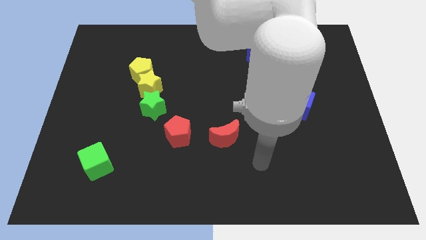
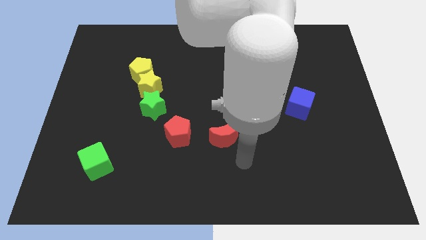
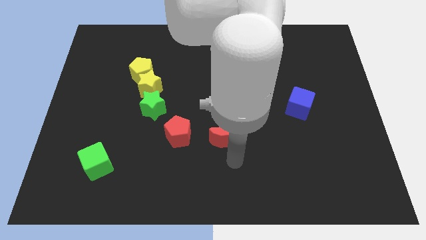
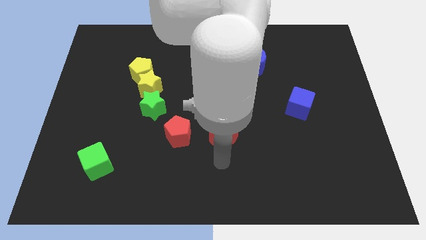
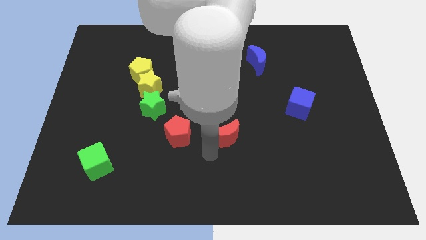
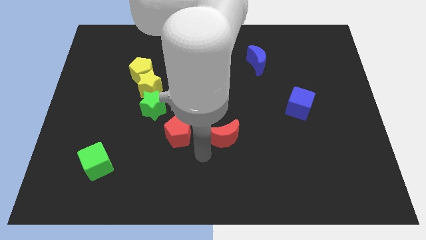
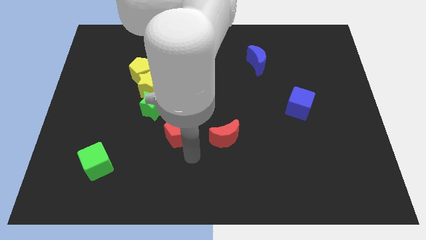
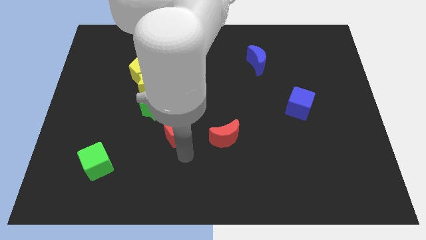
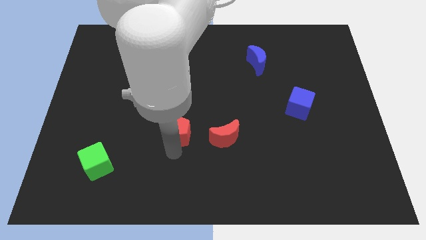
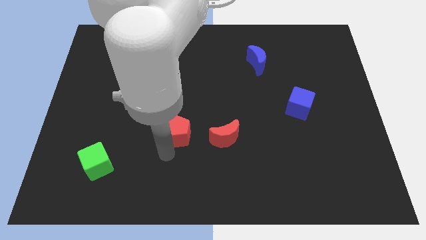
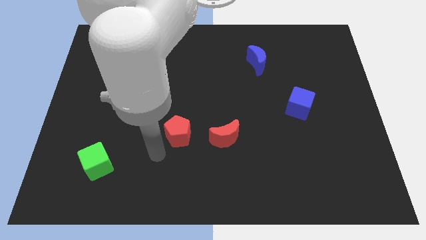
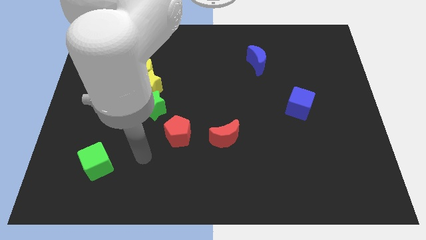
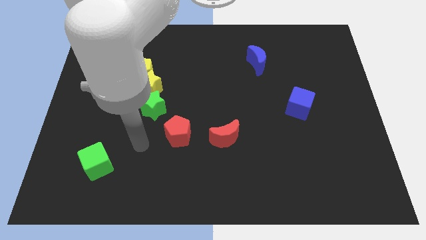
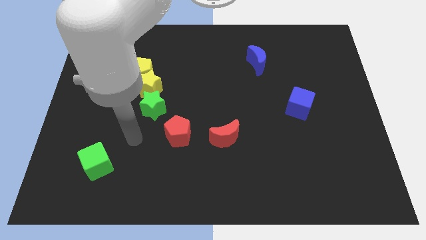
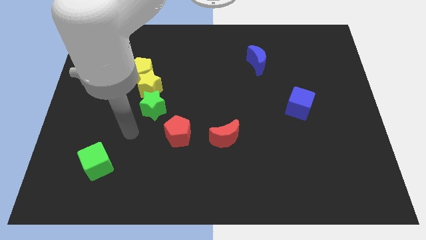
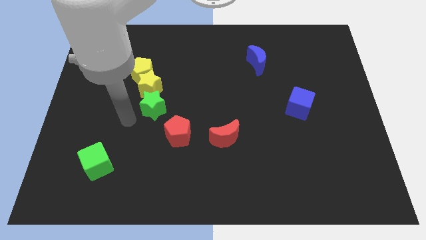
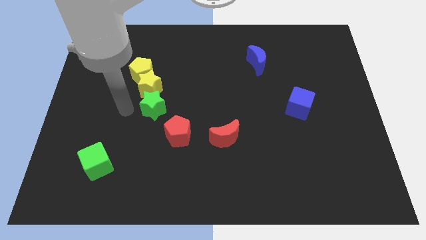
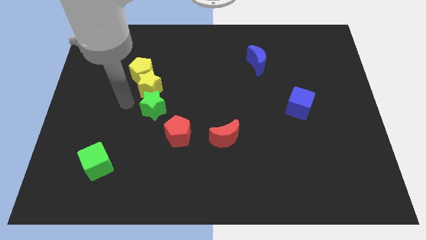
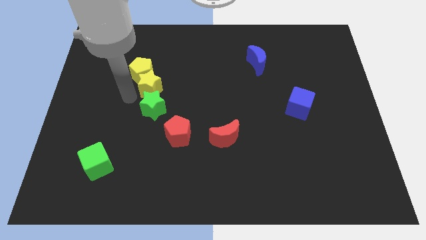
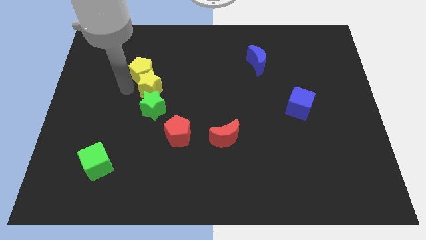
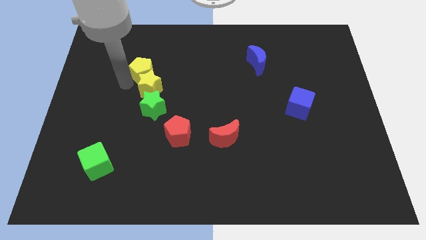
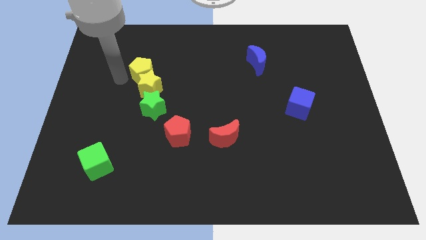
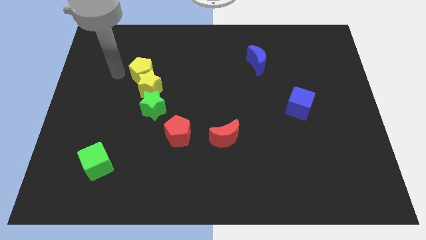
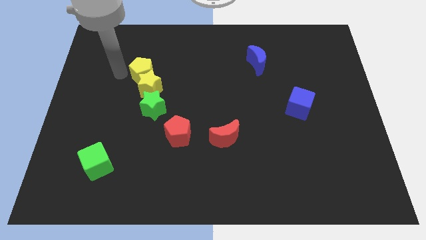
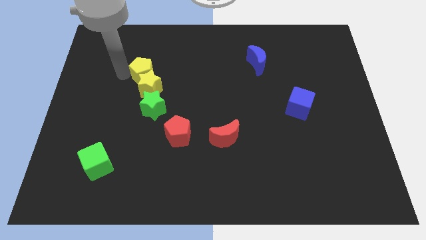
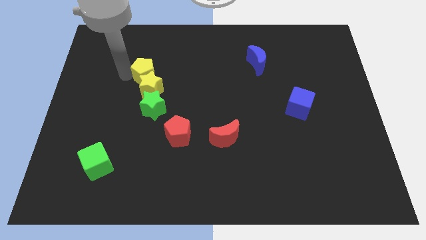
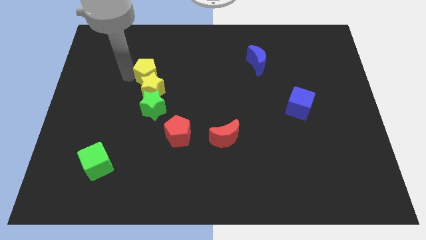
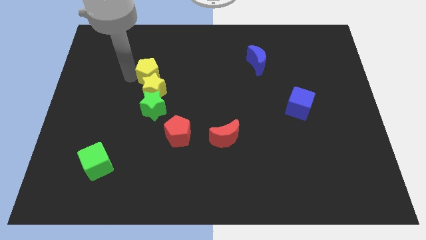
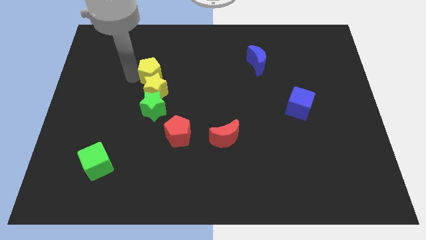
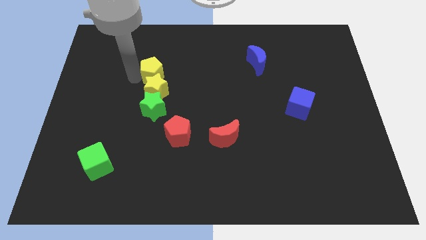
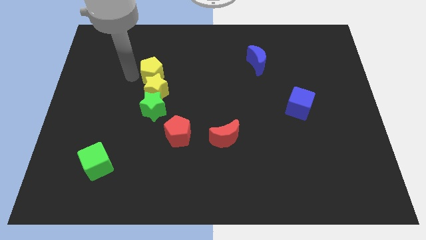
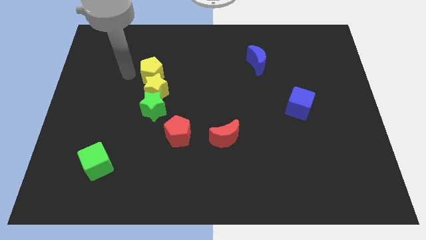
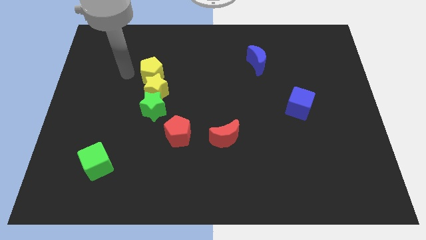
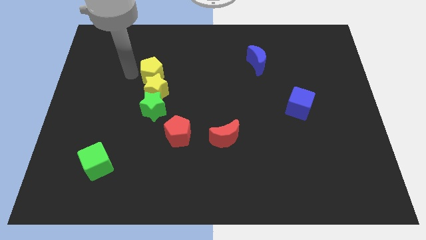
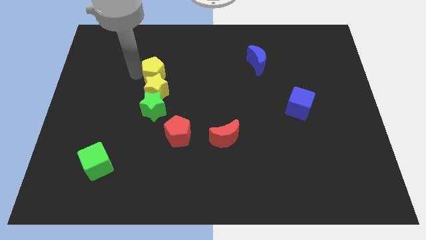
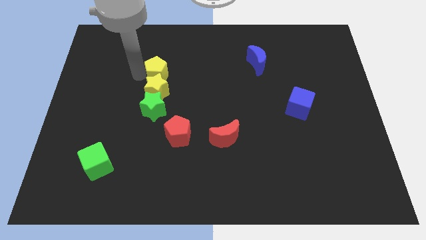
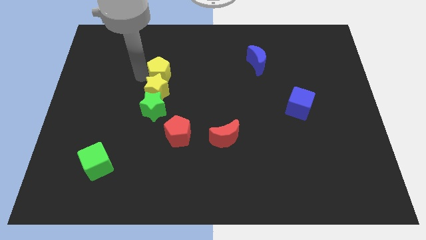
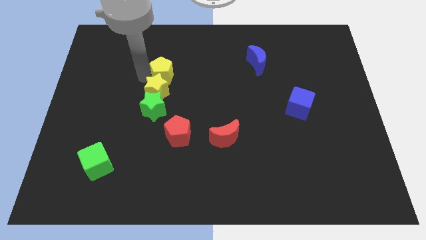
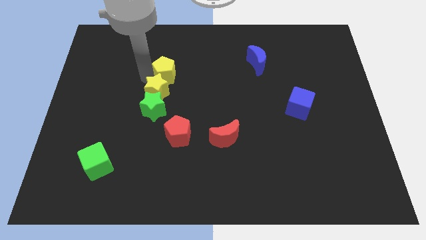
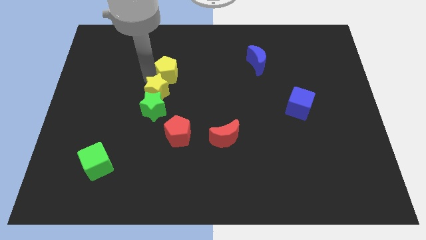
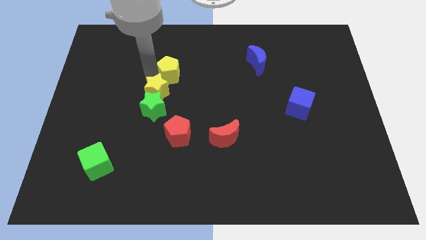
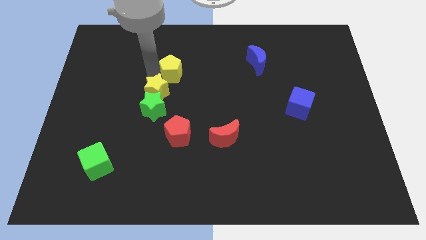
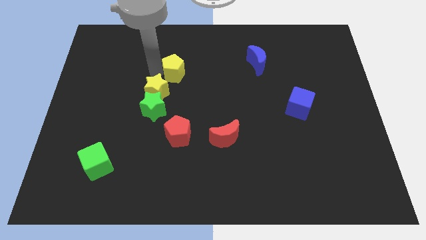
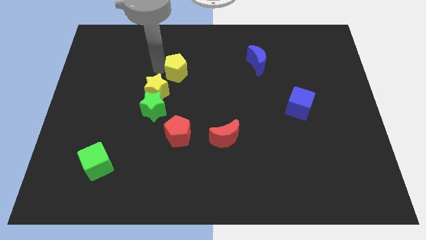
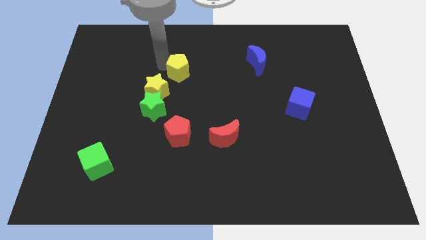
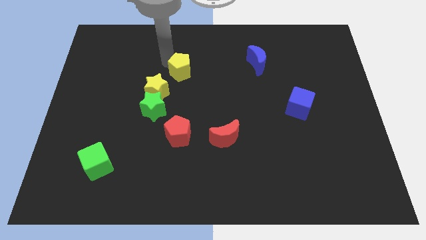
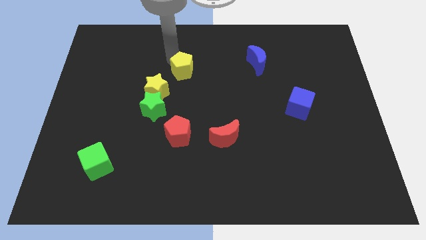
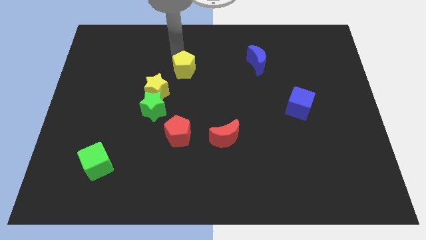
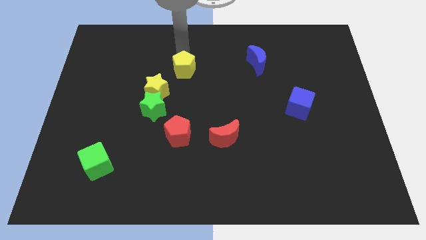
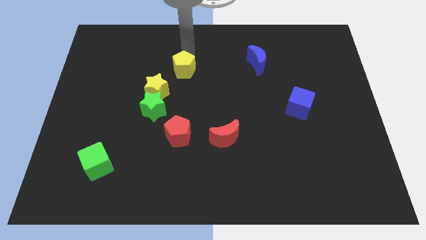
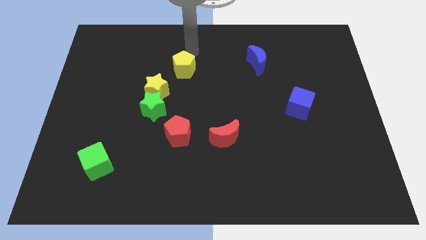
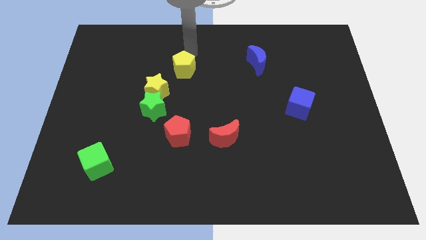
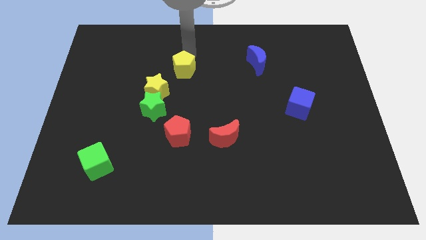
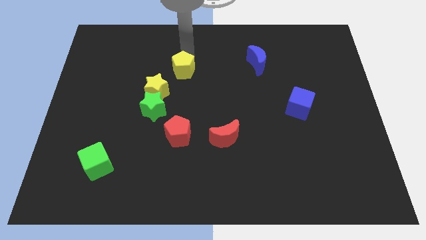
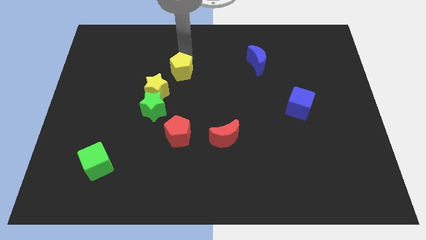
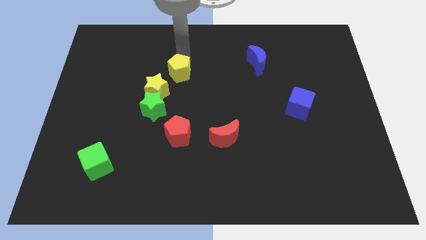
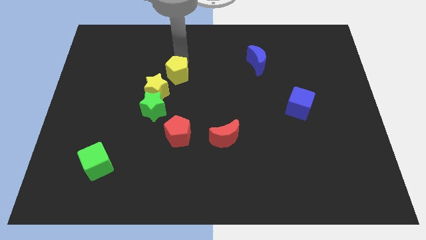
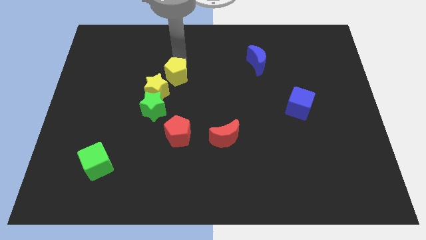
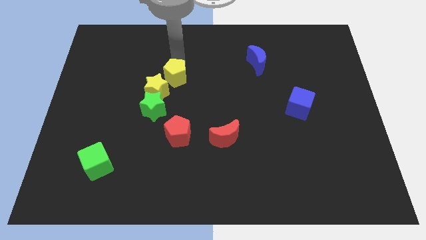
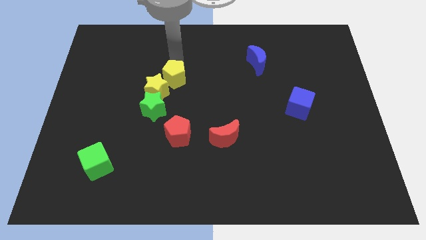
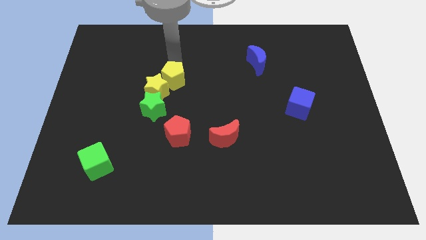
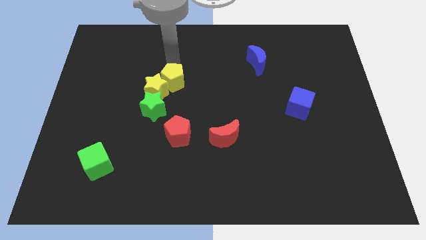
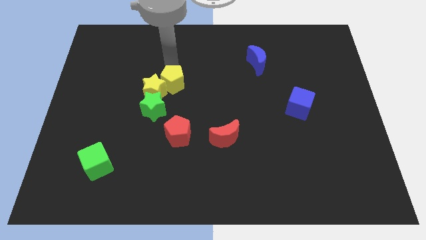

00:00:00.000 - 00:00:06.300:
slide the yellow pentagon to the top of the red pentagon
